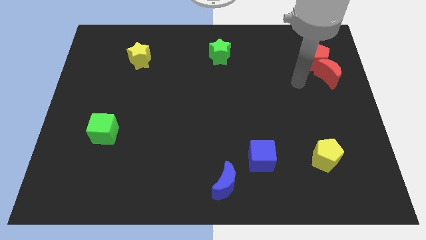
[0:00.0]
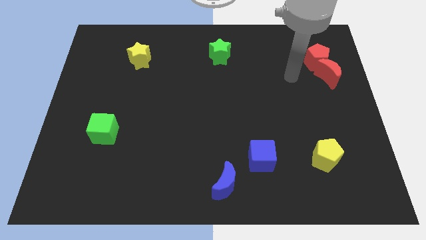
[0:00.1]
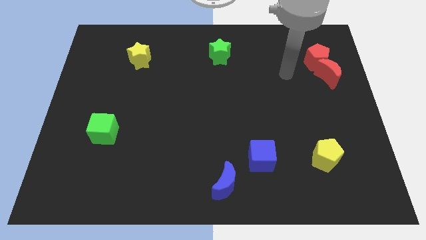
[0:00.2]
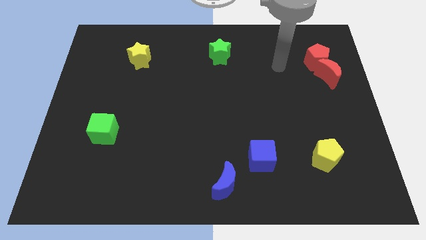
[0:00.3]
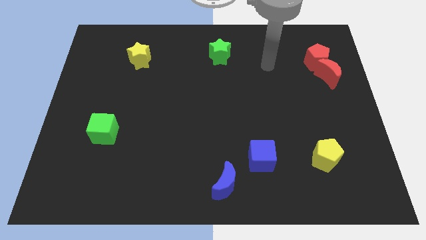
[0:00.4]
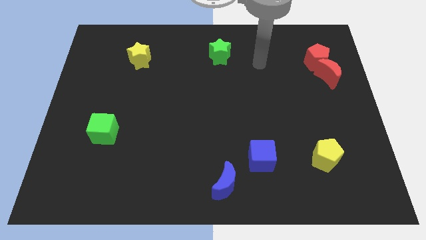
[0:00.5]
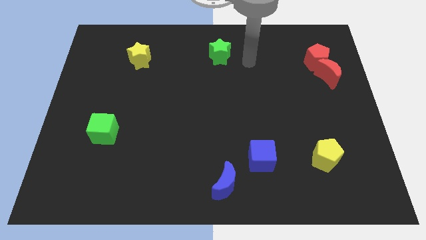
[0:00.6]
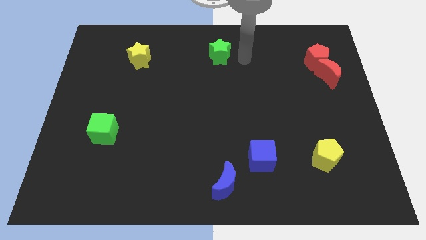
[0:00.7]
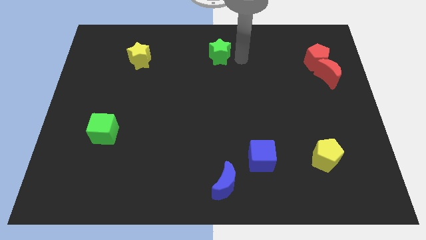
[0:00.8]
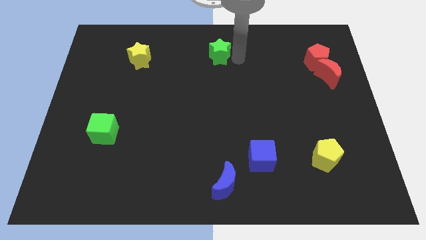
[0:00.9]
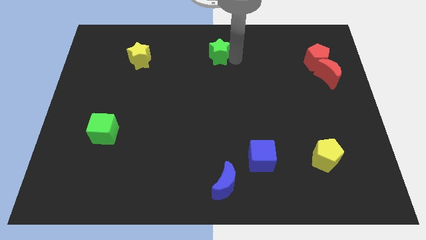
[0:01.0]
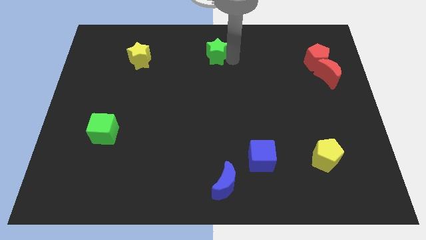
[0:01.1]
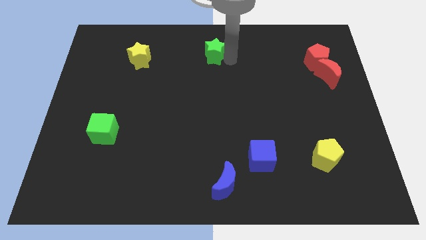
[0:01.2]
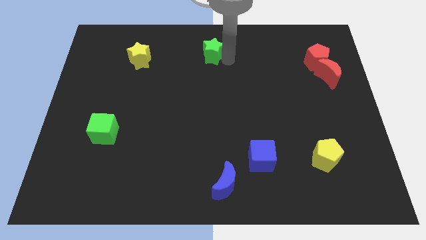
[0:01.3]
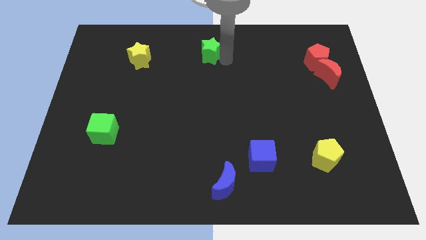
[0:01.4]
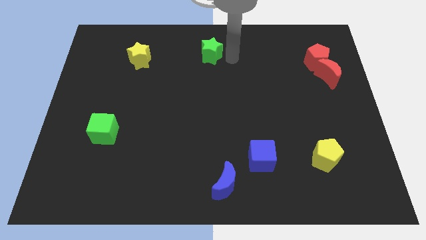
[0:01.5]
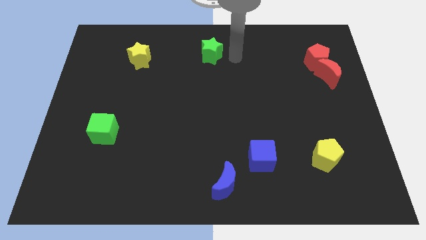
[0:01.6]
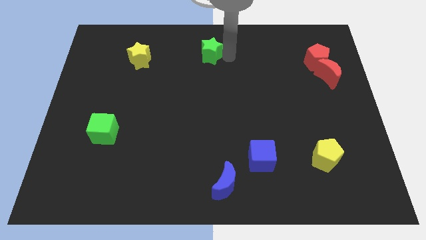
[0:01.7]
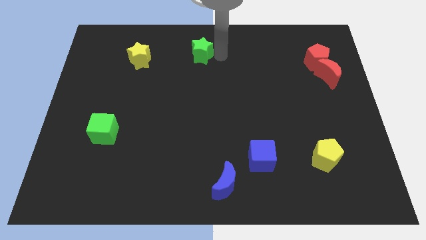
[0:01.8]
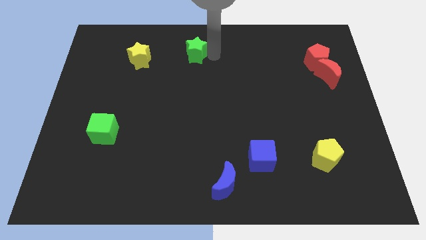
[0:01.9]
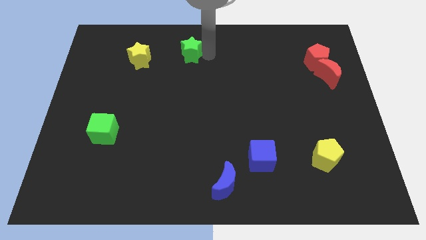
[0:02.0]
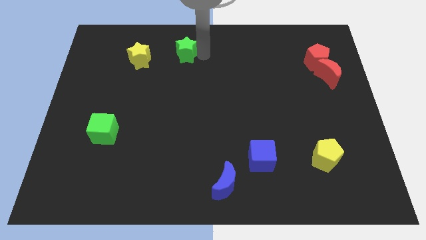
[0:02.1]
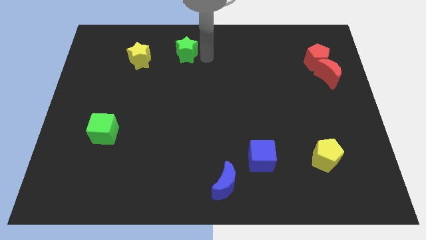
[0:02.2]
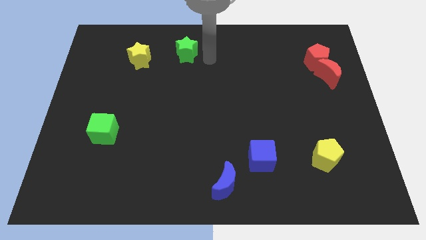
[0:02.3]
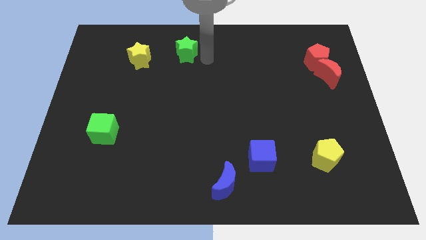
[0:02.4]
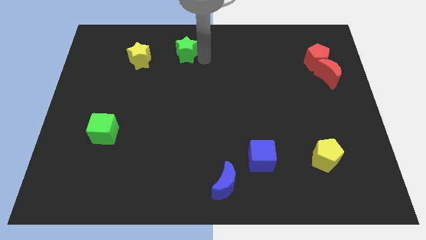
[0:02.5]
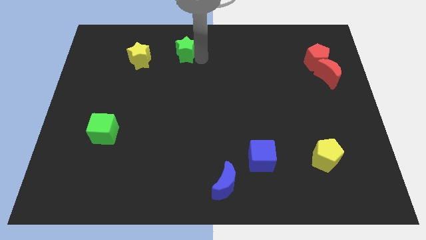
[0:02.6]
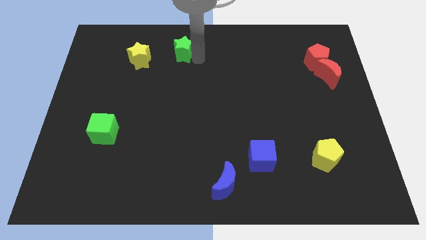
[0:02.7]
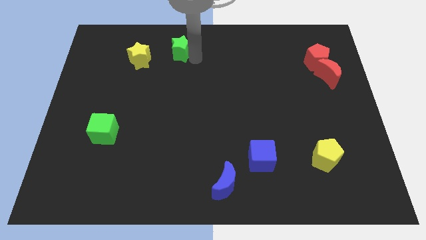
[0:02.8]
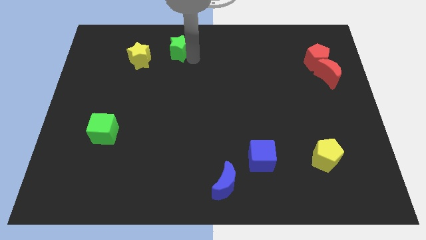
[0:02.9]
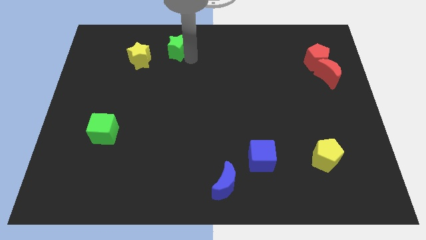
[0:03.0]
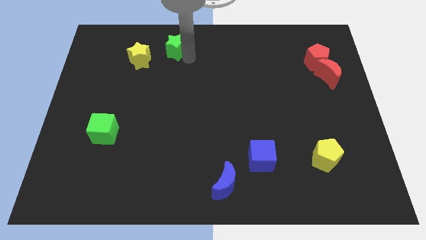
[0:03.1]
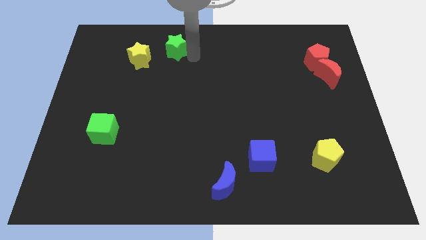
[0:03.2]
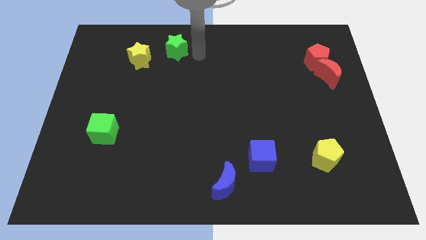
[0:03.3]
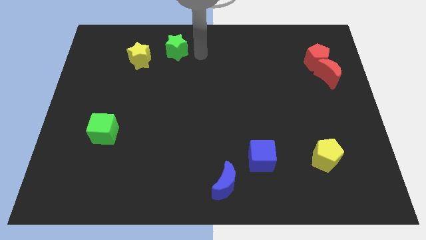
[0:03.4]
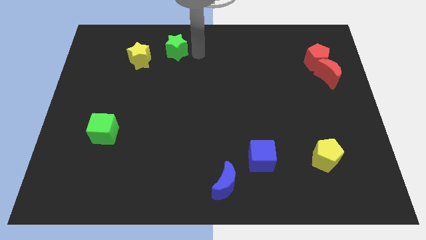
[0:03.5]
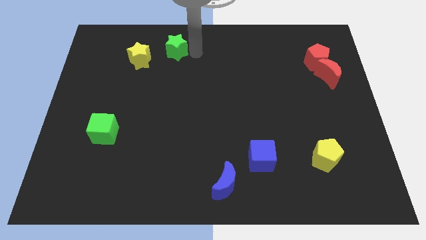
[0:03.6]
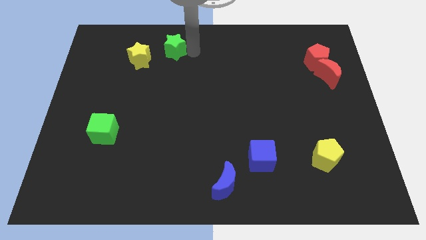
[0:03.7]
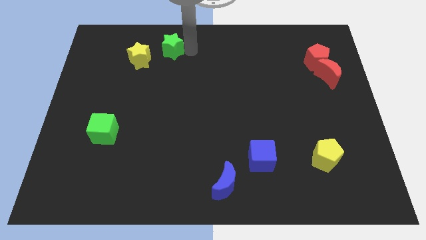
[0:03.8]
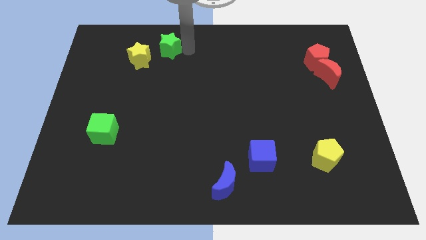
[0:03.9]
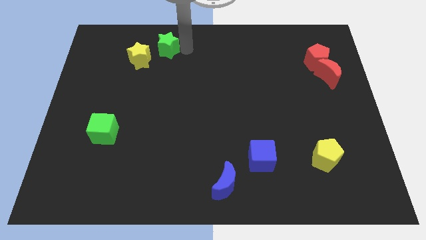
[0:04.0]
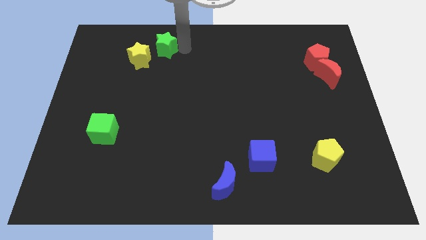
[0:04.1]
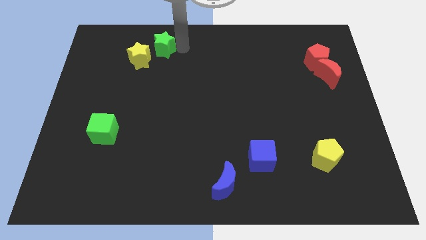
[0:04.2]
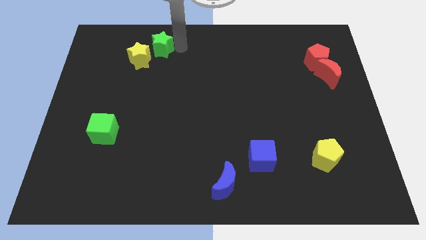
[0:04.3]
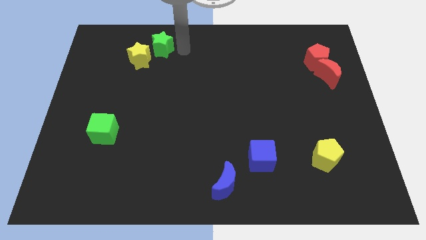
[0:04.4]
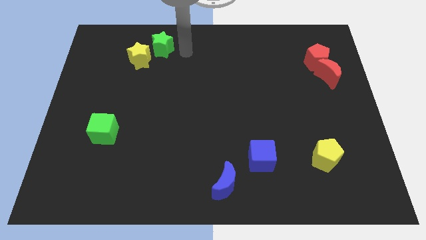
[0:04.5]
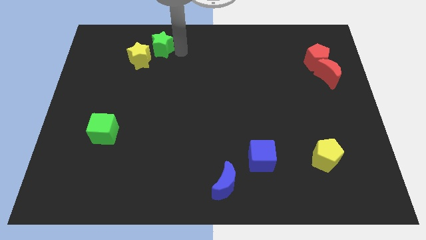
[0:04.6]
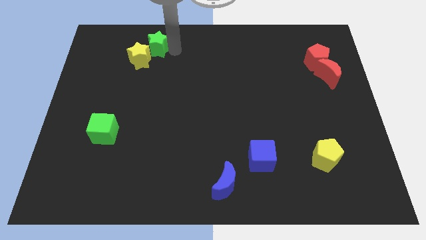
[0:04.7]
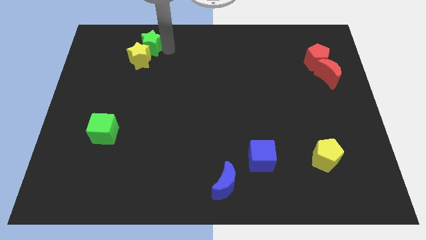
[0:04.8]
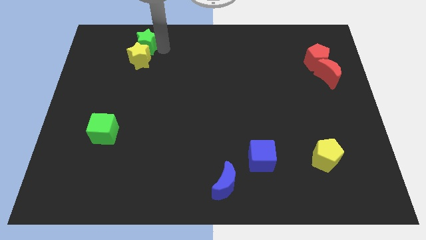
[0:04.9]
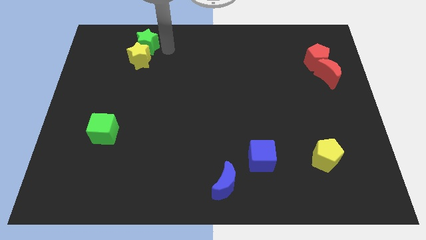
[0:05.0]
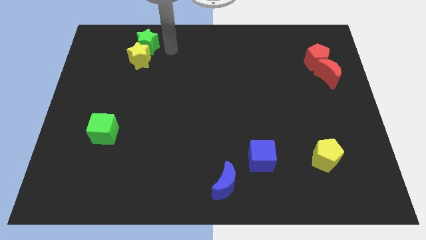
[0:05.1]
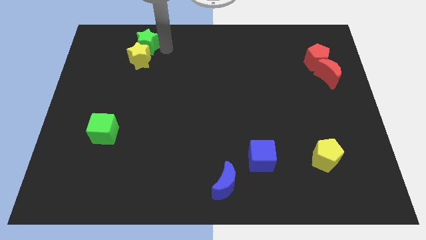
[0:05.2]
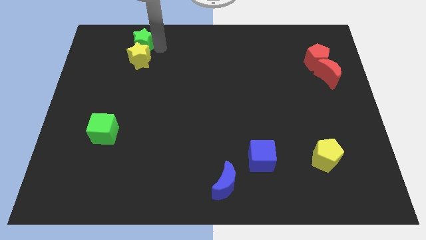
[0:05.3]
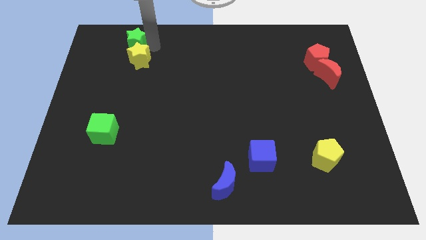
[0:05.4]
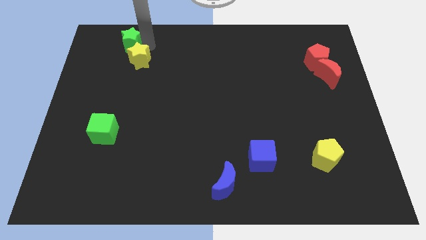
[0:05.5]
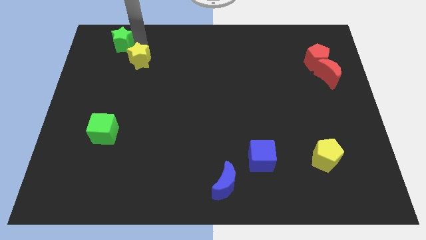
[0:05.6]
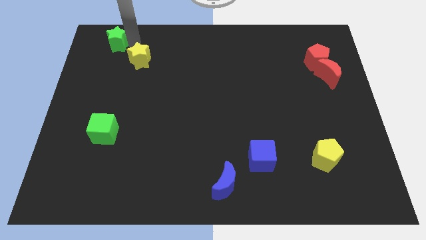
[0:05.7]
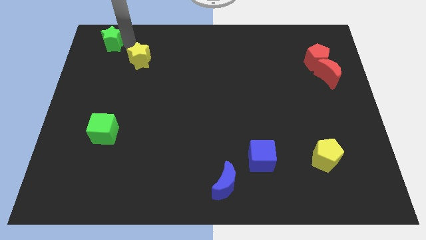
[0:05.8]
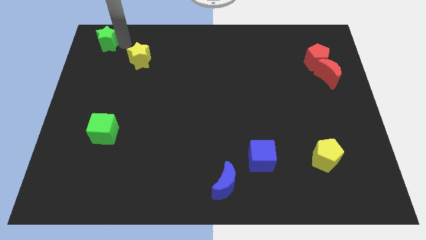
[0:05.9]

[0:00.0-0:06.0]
put the green star to the top left corner
